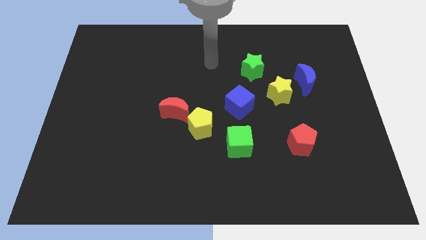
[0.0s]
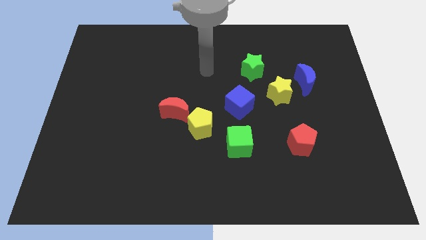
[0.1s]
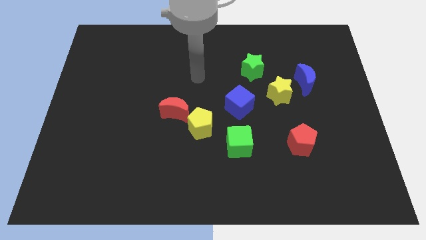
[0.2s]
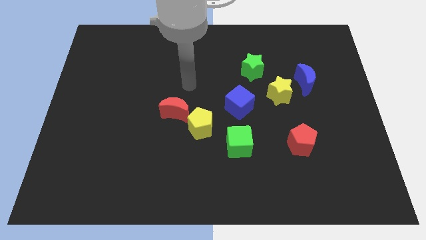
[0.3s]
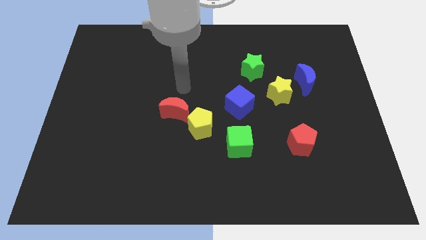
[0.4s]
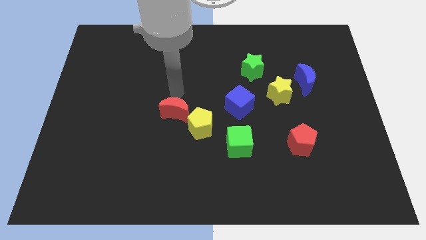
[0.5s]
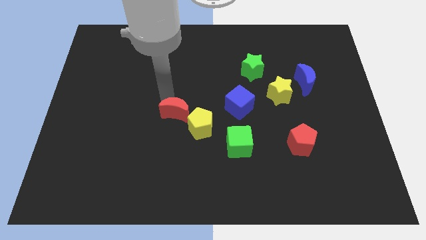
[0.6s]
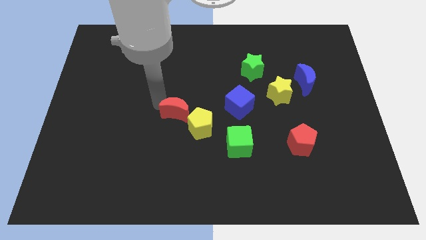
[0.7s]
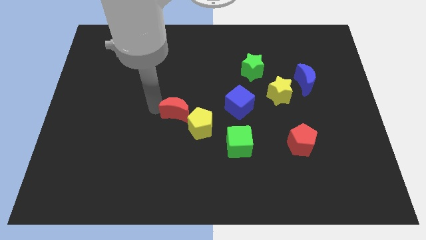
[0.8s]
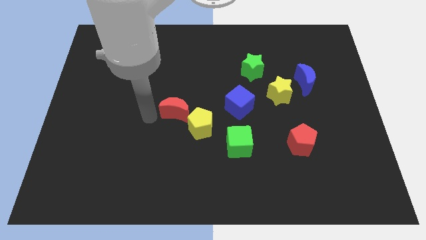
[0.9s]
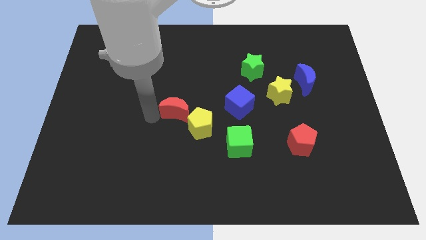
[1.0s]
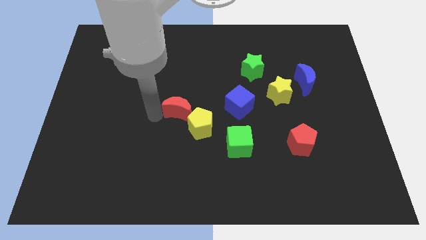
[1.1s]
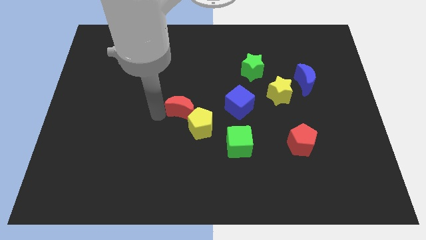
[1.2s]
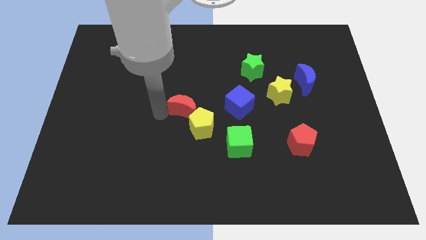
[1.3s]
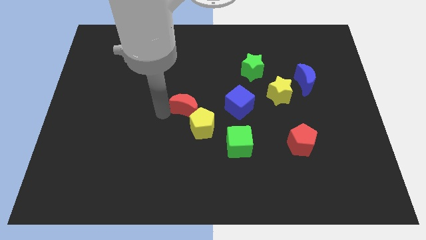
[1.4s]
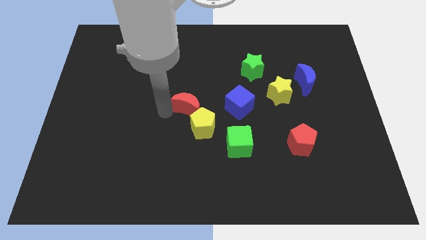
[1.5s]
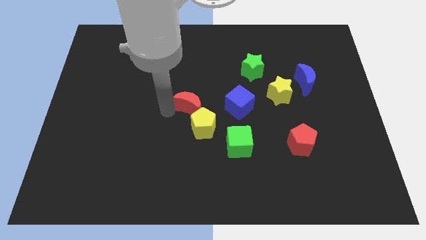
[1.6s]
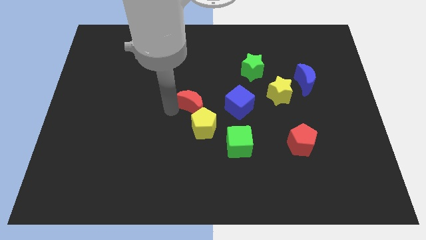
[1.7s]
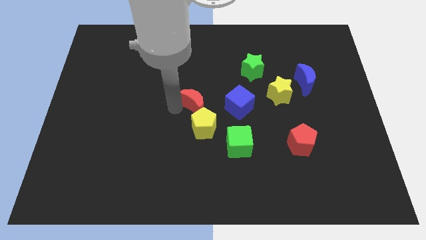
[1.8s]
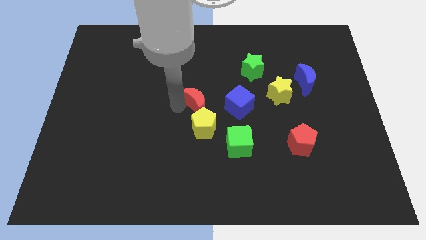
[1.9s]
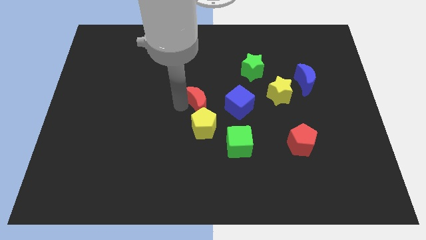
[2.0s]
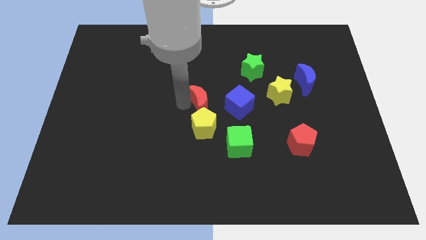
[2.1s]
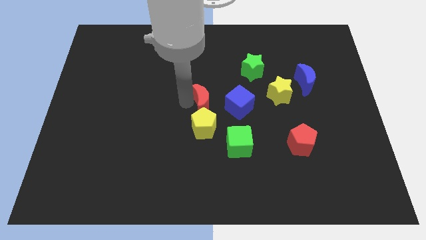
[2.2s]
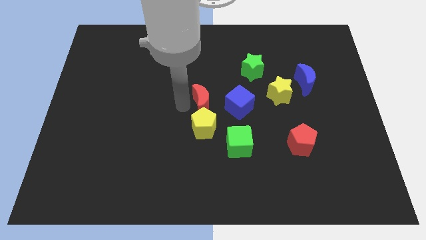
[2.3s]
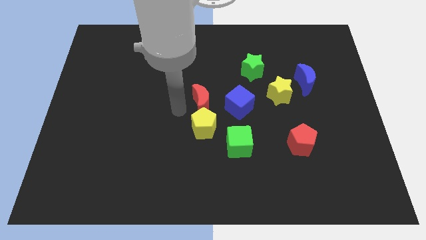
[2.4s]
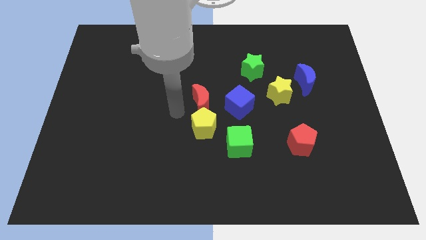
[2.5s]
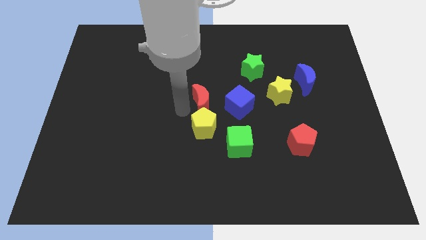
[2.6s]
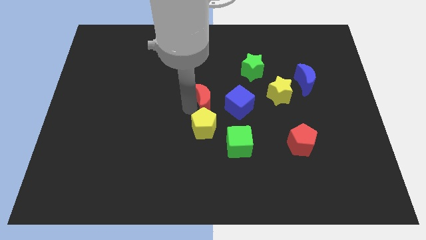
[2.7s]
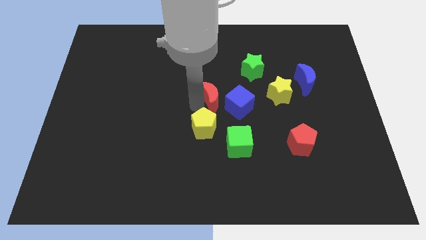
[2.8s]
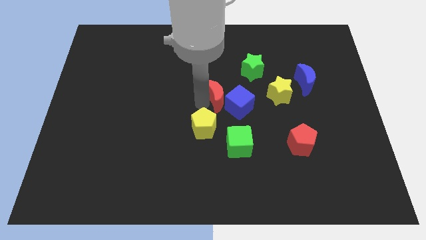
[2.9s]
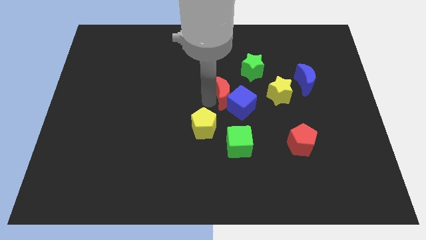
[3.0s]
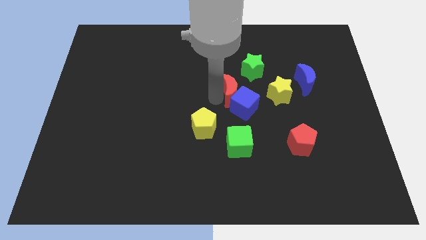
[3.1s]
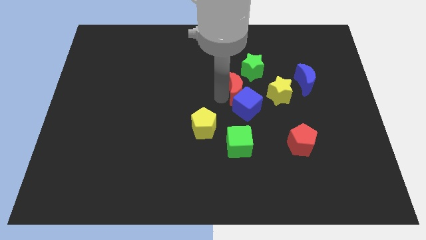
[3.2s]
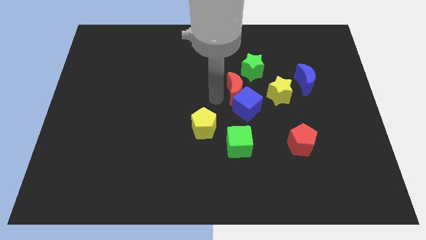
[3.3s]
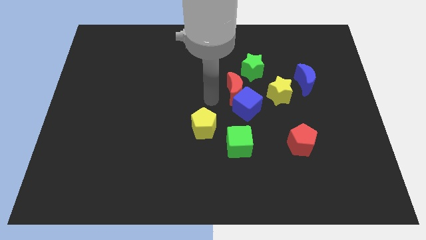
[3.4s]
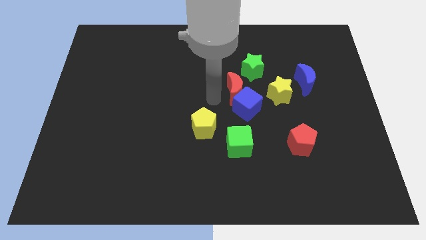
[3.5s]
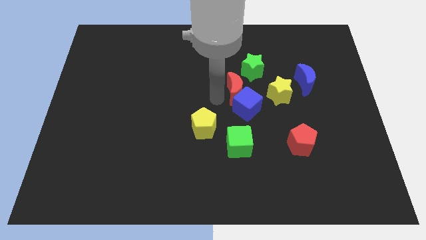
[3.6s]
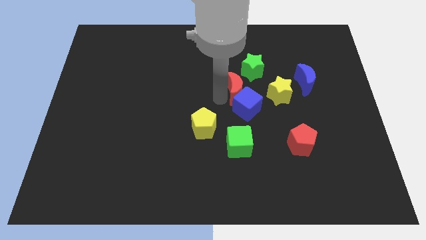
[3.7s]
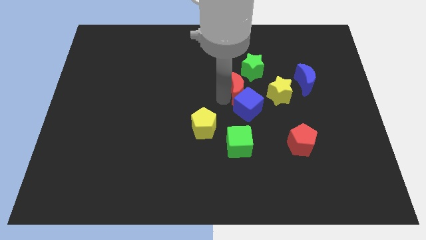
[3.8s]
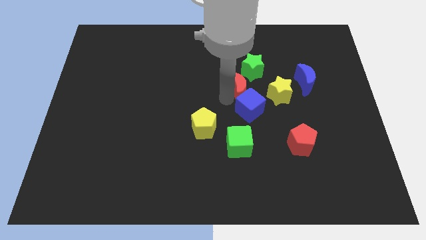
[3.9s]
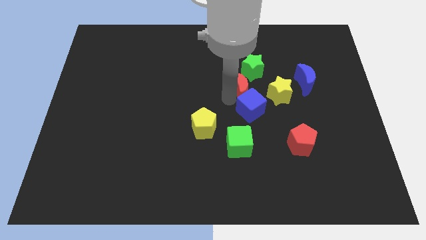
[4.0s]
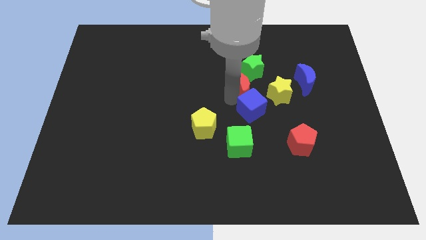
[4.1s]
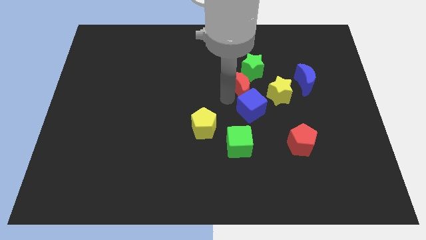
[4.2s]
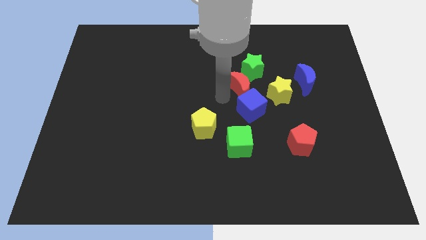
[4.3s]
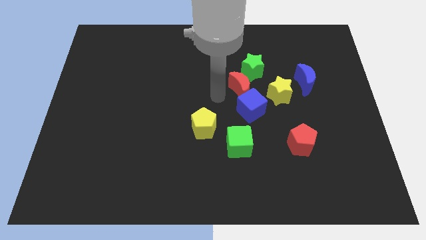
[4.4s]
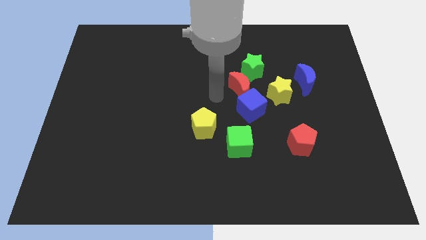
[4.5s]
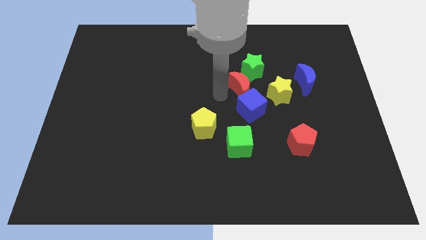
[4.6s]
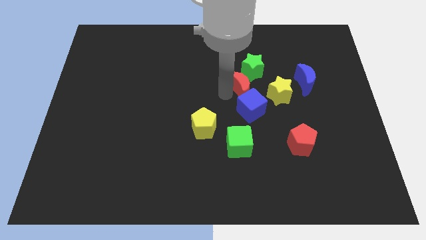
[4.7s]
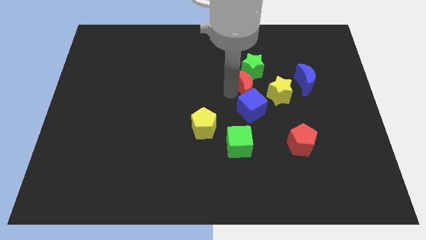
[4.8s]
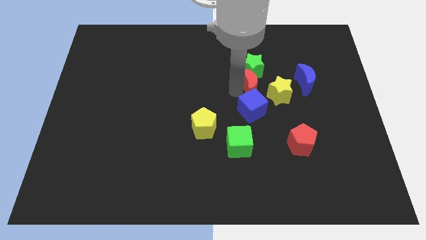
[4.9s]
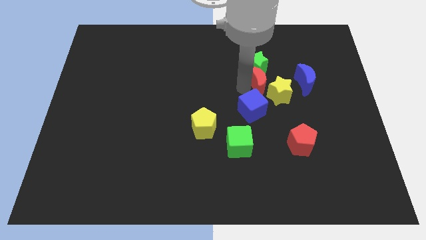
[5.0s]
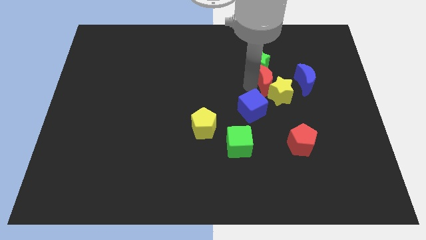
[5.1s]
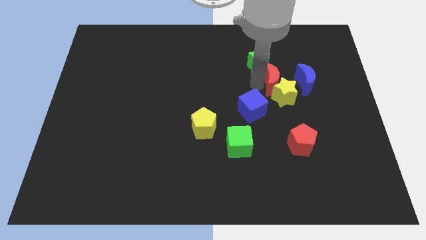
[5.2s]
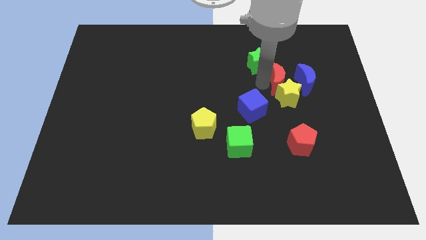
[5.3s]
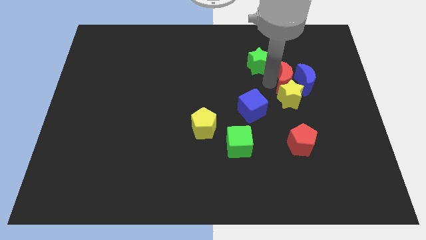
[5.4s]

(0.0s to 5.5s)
move the red moon towards the blue moon

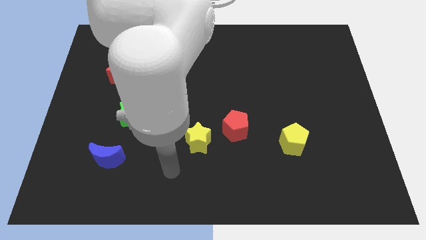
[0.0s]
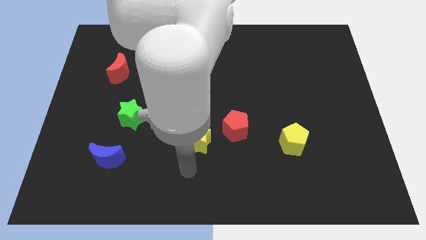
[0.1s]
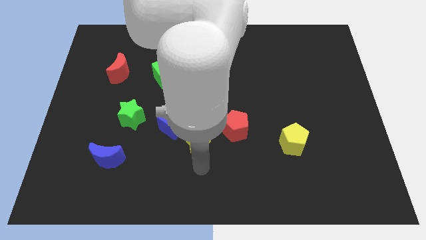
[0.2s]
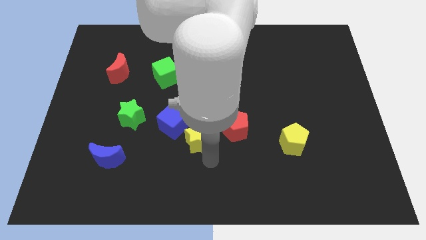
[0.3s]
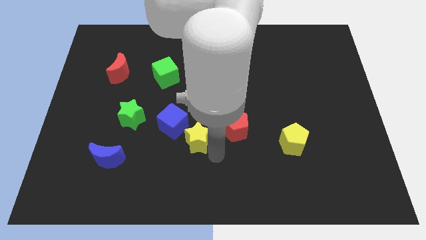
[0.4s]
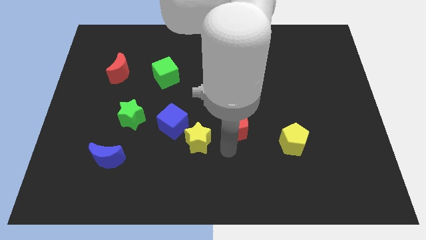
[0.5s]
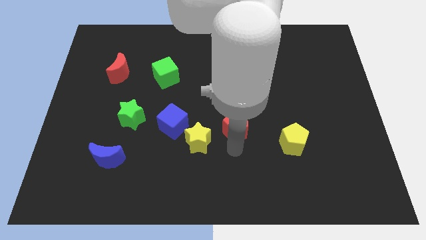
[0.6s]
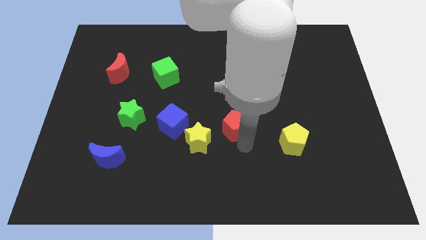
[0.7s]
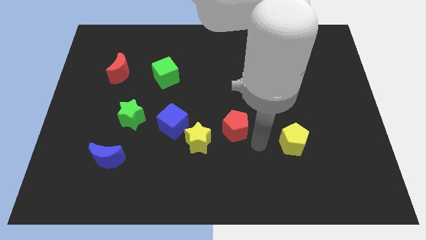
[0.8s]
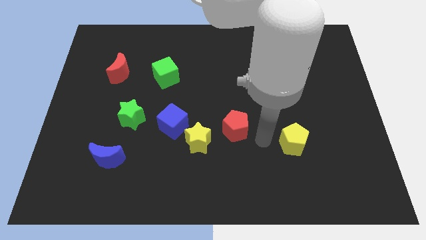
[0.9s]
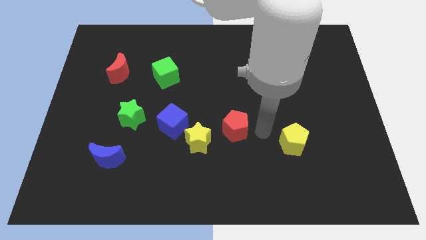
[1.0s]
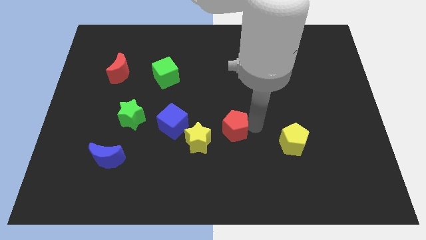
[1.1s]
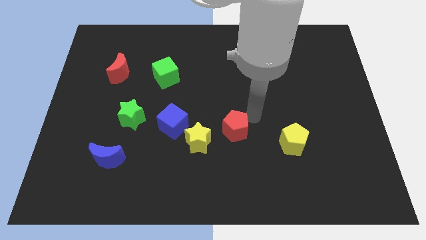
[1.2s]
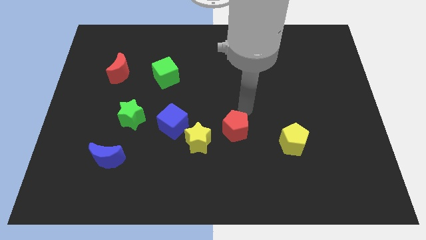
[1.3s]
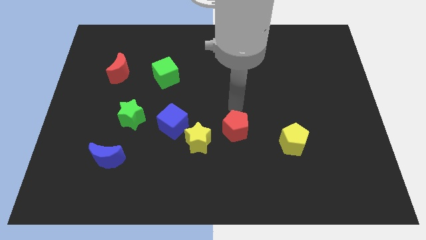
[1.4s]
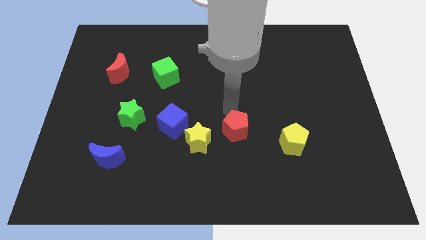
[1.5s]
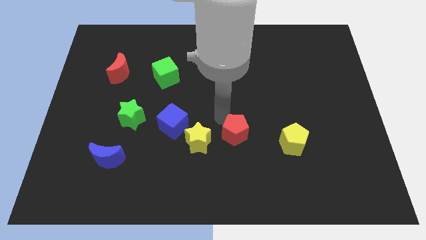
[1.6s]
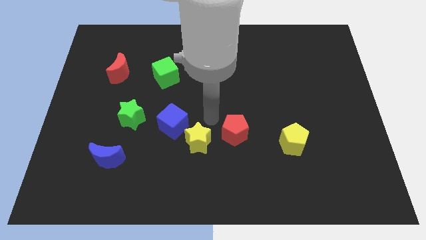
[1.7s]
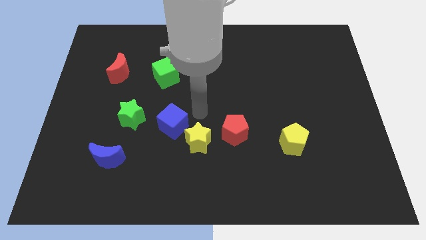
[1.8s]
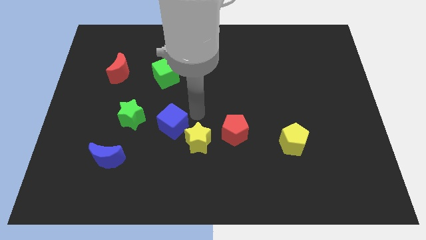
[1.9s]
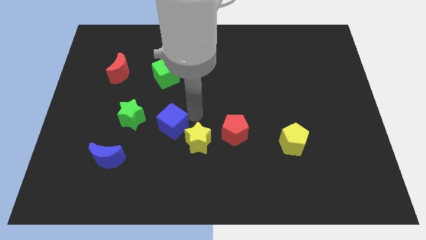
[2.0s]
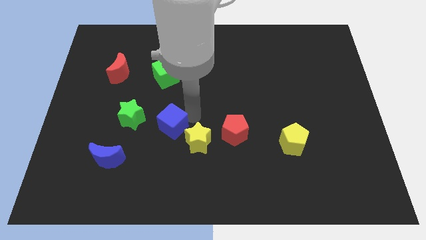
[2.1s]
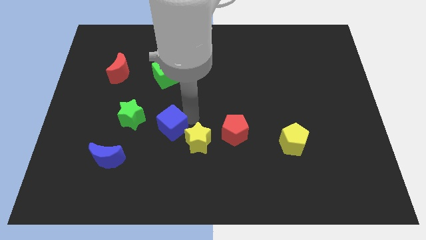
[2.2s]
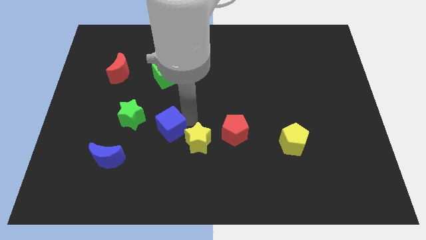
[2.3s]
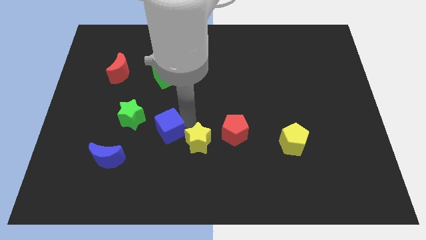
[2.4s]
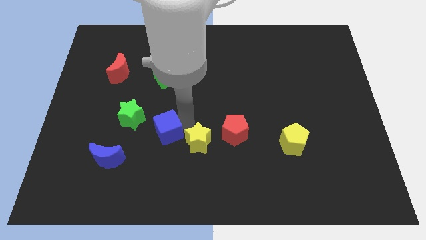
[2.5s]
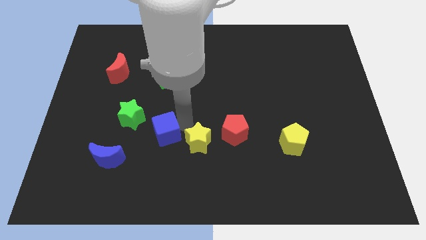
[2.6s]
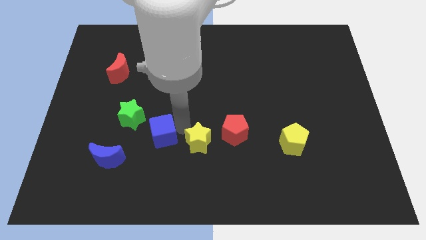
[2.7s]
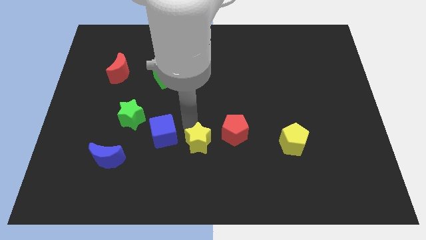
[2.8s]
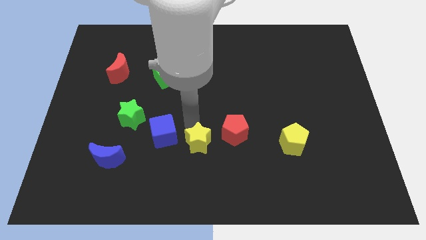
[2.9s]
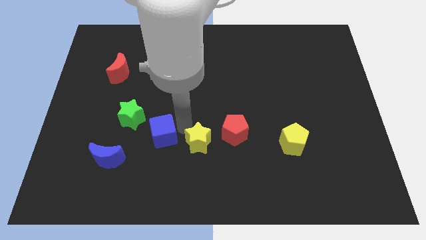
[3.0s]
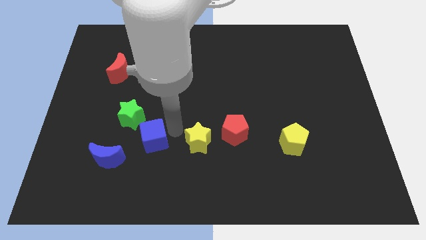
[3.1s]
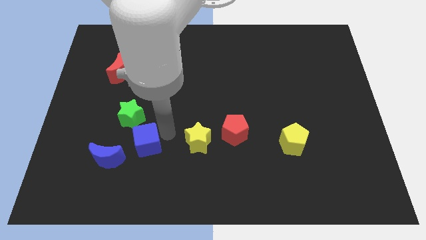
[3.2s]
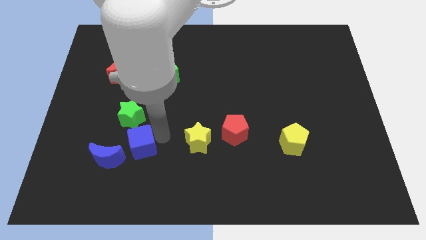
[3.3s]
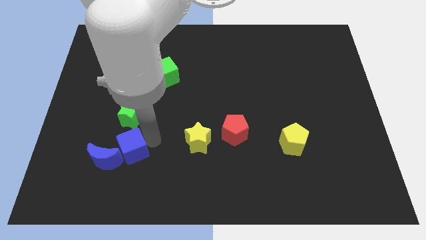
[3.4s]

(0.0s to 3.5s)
push the blue cube next to the blue moon
